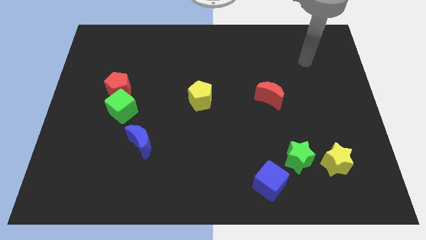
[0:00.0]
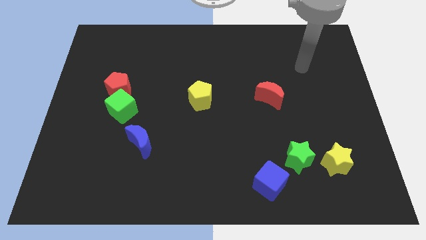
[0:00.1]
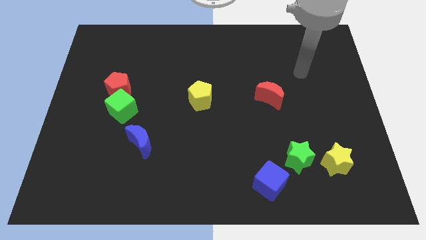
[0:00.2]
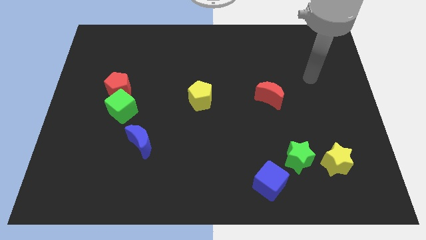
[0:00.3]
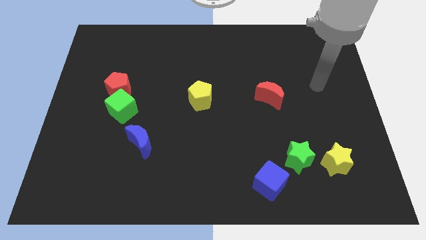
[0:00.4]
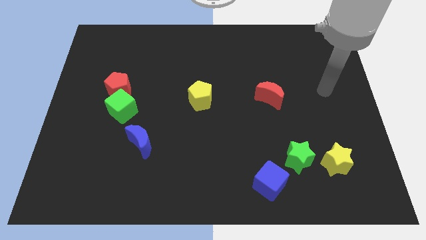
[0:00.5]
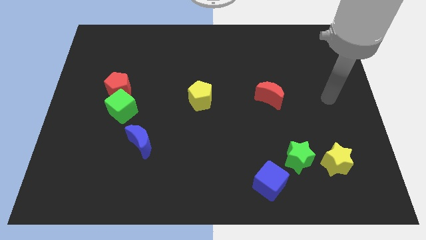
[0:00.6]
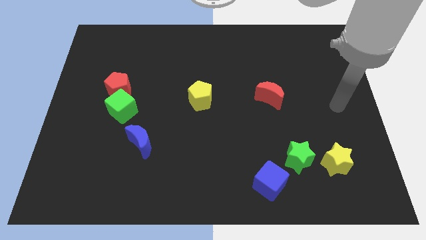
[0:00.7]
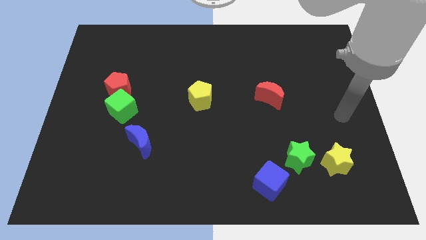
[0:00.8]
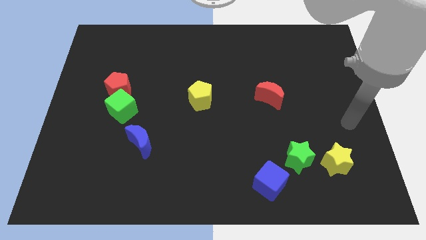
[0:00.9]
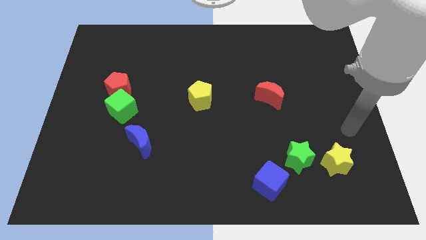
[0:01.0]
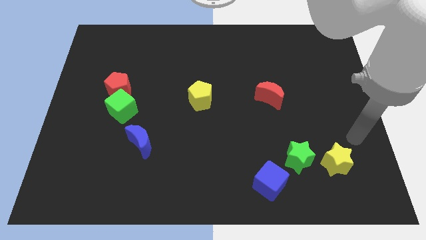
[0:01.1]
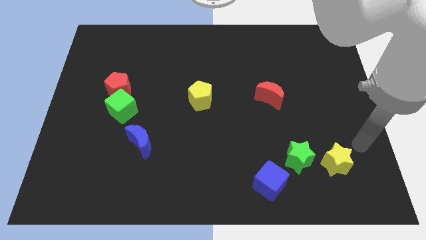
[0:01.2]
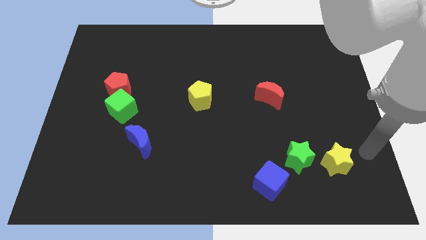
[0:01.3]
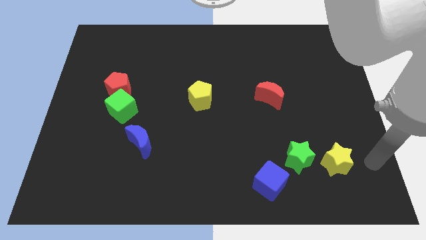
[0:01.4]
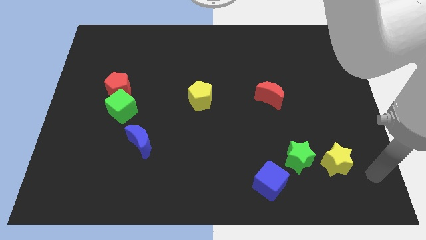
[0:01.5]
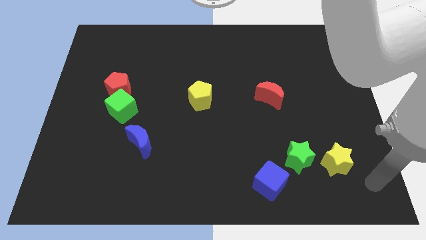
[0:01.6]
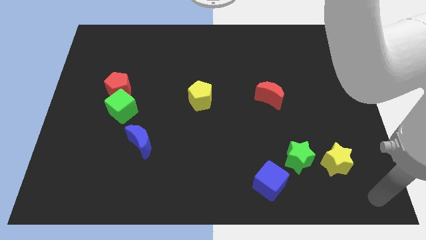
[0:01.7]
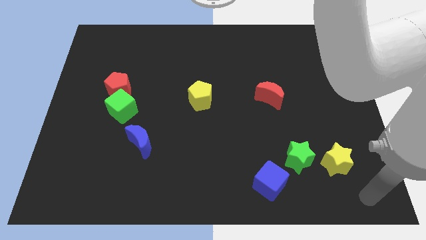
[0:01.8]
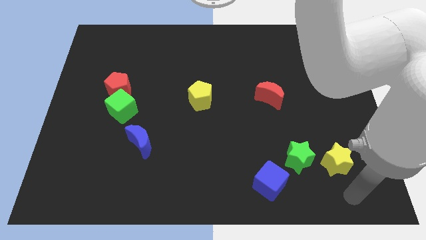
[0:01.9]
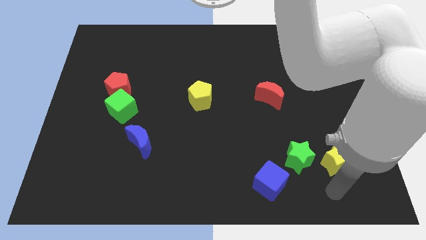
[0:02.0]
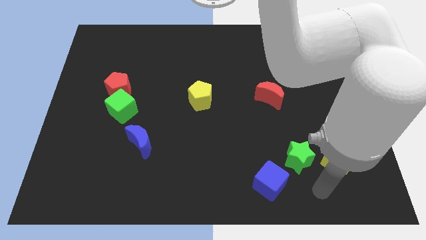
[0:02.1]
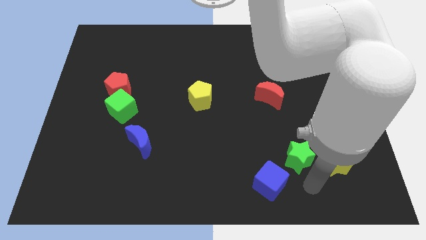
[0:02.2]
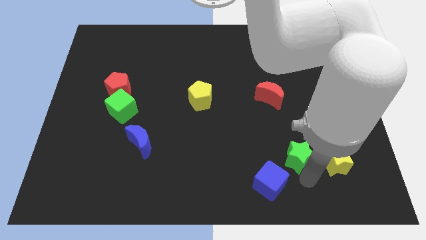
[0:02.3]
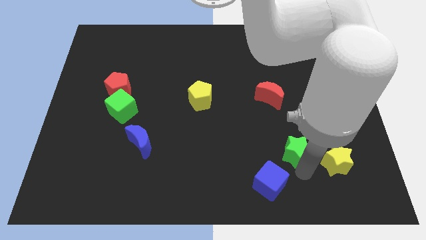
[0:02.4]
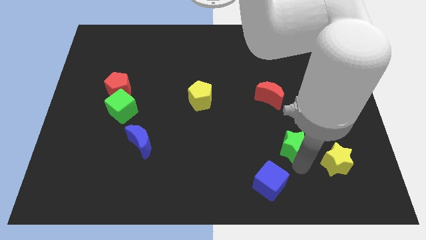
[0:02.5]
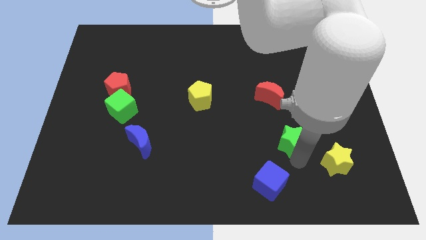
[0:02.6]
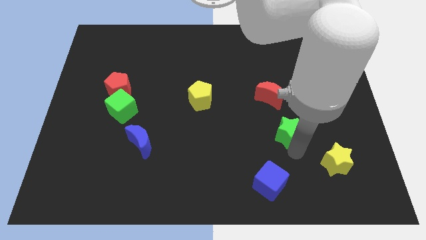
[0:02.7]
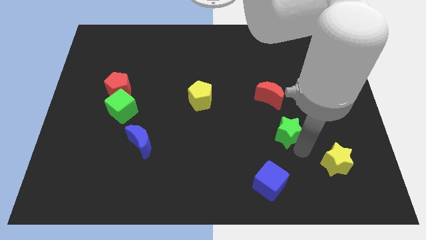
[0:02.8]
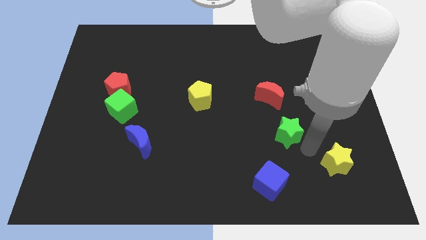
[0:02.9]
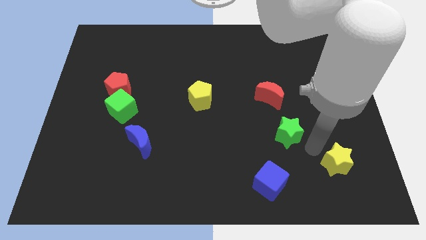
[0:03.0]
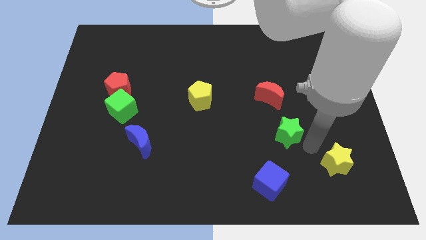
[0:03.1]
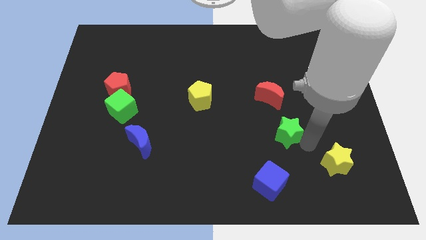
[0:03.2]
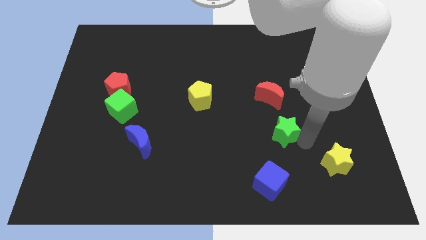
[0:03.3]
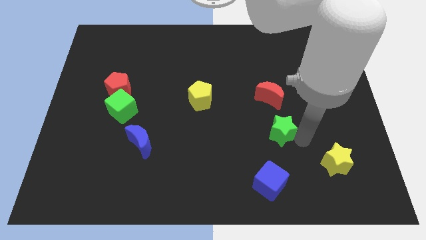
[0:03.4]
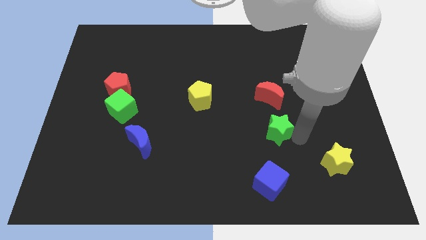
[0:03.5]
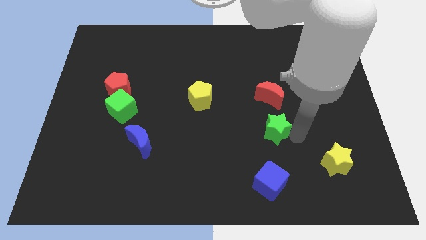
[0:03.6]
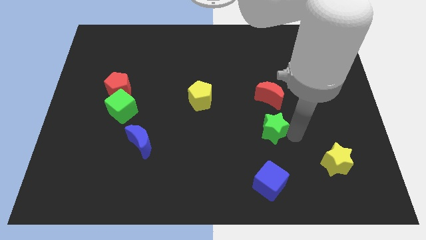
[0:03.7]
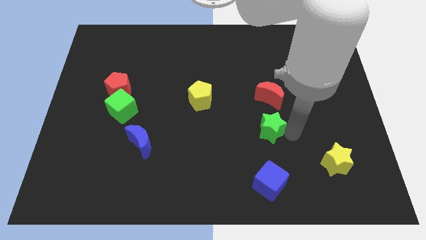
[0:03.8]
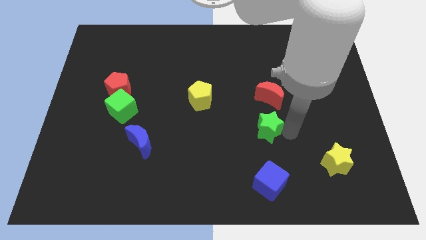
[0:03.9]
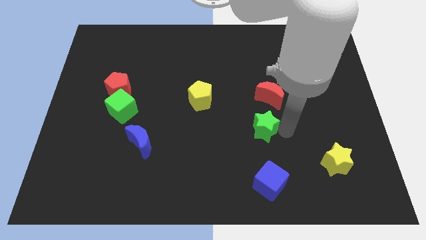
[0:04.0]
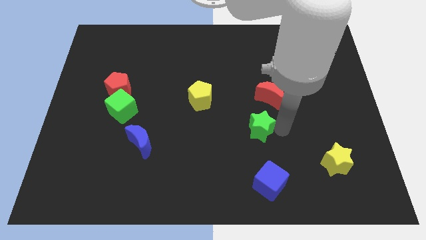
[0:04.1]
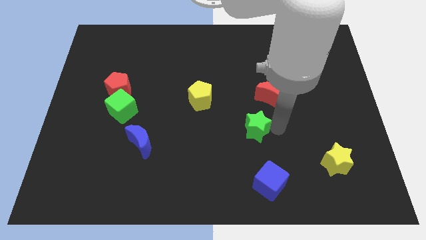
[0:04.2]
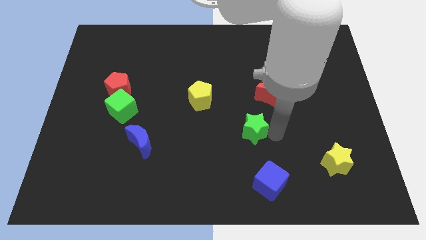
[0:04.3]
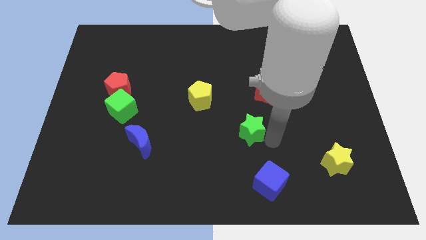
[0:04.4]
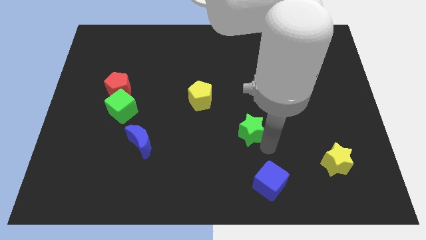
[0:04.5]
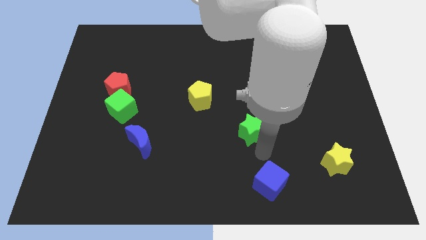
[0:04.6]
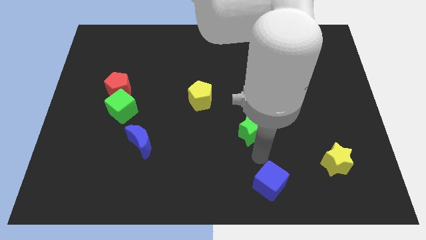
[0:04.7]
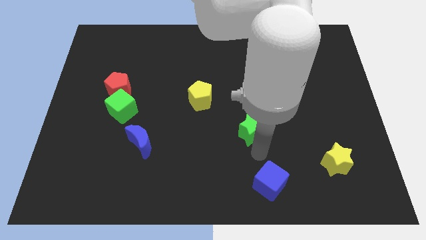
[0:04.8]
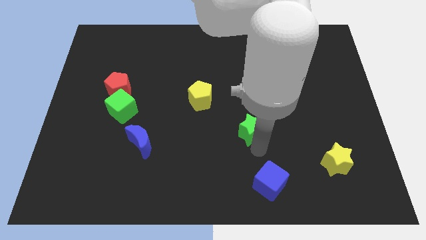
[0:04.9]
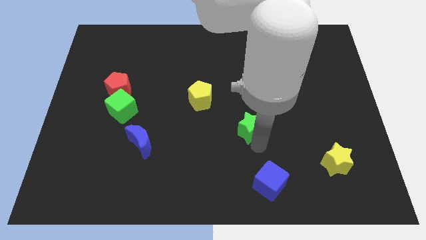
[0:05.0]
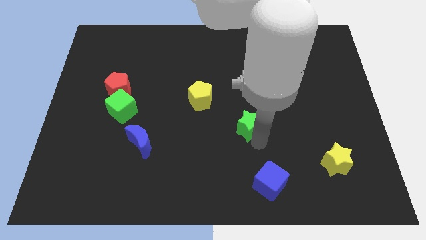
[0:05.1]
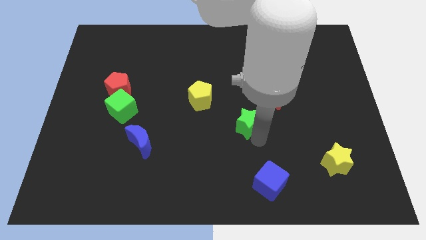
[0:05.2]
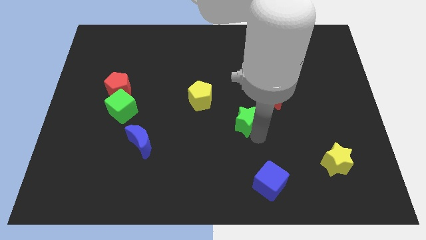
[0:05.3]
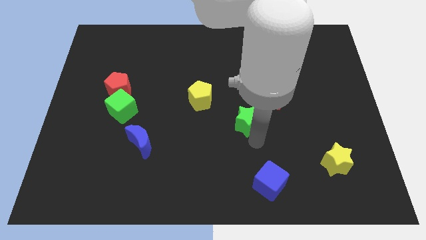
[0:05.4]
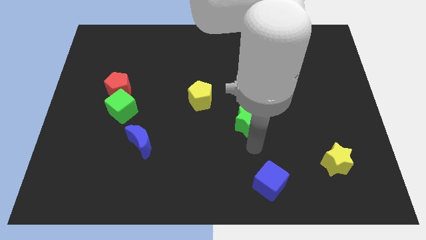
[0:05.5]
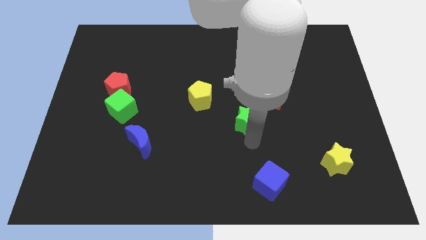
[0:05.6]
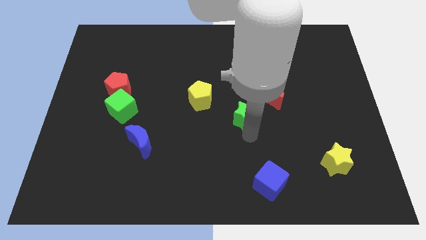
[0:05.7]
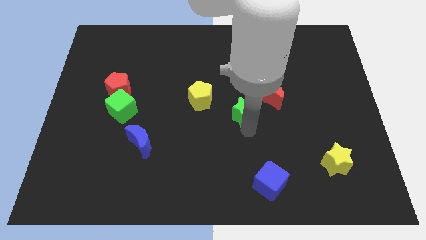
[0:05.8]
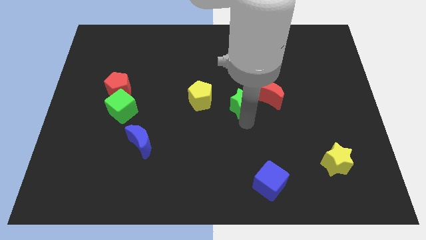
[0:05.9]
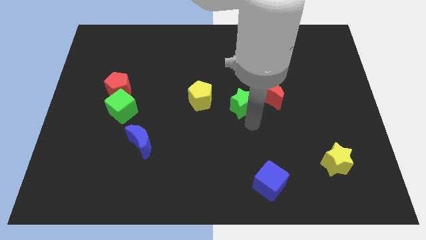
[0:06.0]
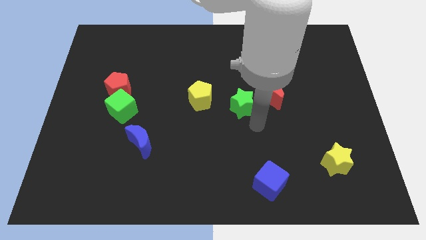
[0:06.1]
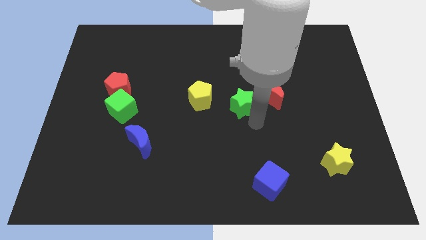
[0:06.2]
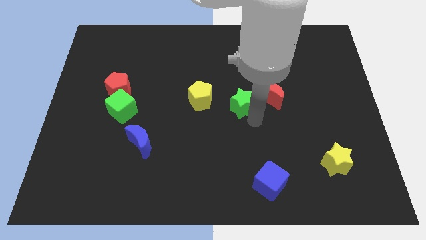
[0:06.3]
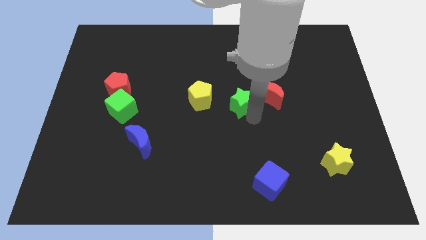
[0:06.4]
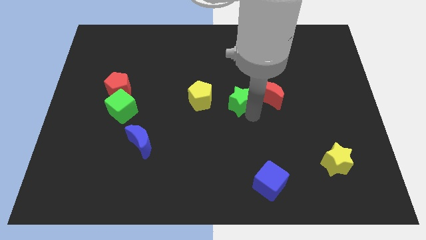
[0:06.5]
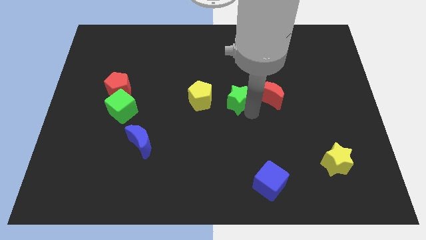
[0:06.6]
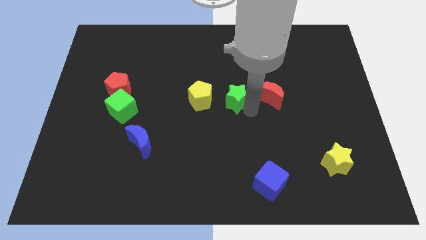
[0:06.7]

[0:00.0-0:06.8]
move the green star diagonally up and to the left

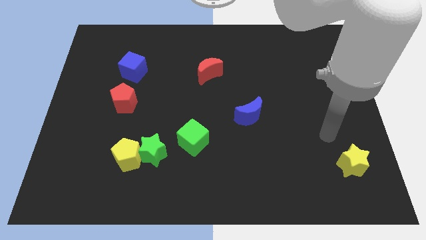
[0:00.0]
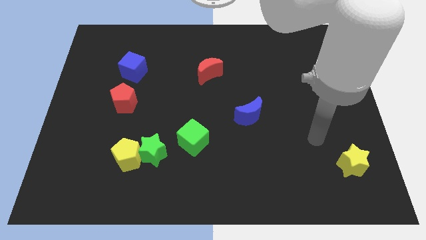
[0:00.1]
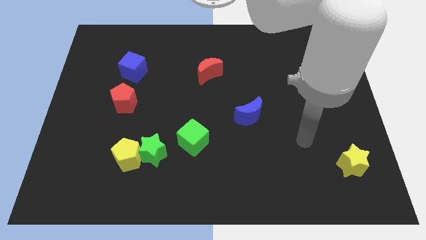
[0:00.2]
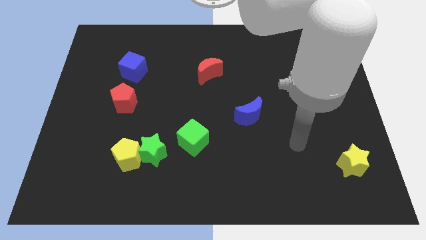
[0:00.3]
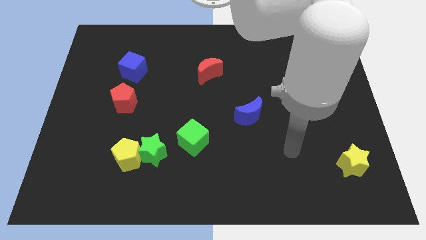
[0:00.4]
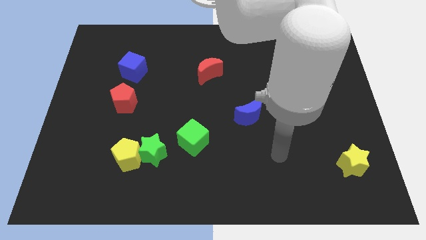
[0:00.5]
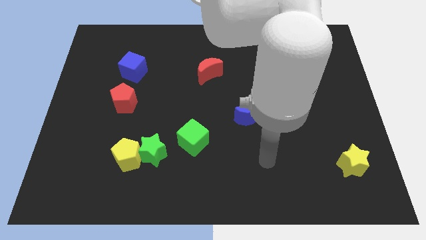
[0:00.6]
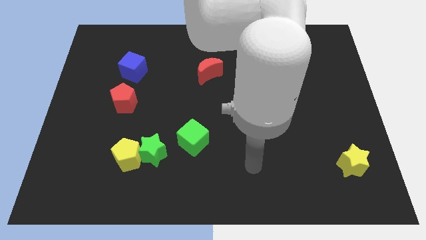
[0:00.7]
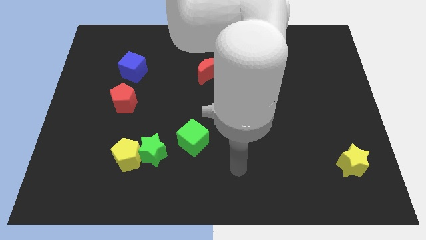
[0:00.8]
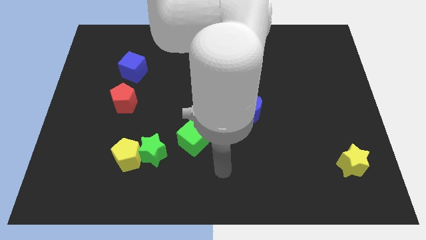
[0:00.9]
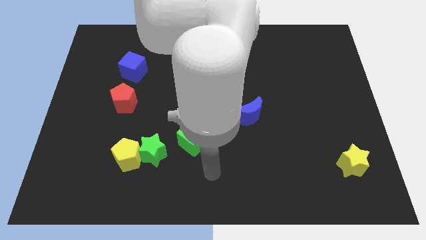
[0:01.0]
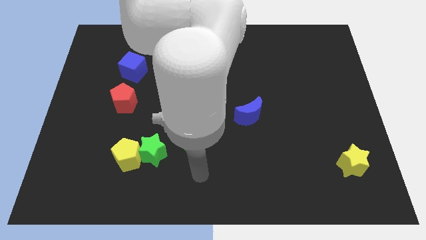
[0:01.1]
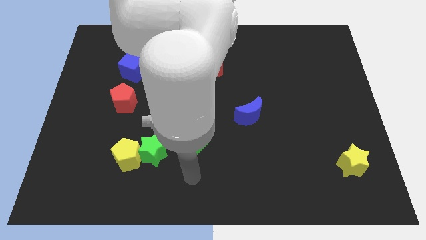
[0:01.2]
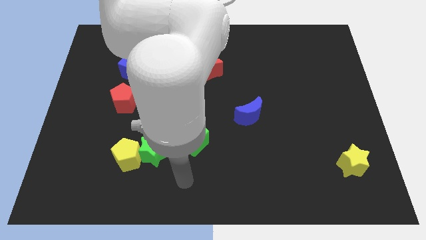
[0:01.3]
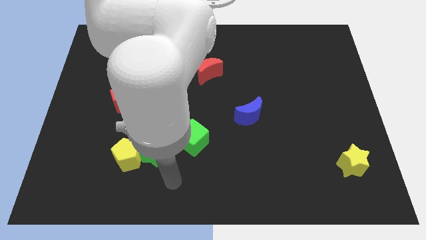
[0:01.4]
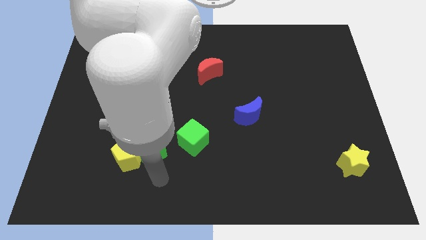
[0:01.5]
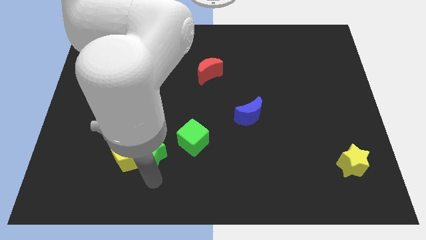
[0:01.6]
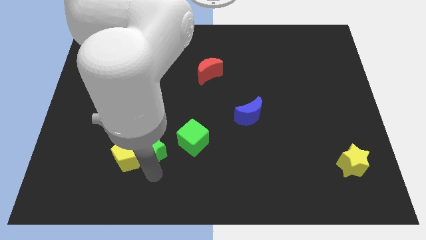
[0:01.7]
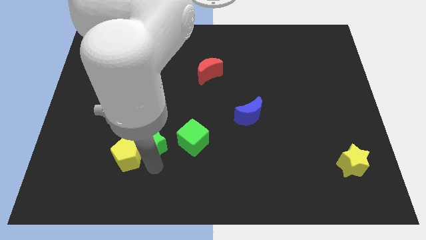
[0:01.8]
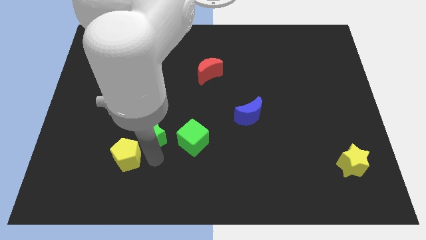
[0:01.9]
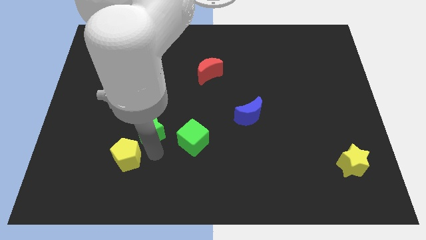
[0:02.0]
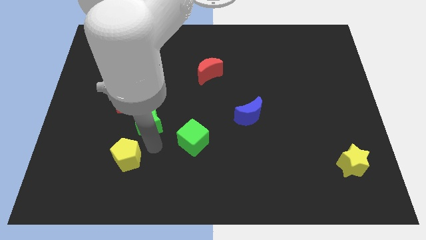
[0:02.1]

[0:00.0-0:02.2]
move the green star slightly upwards
